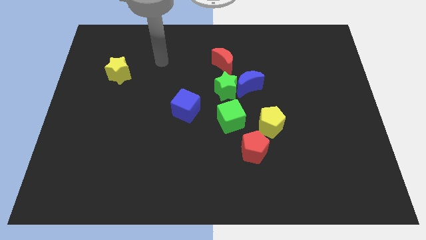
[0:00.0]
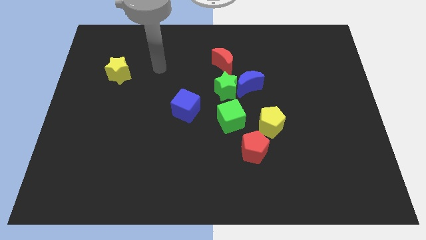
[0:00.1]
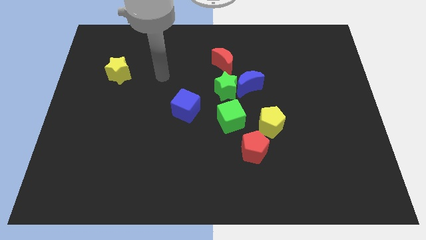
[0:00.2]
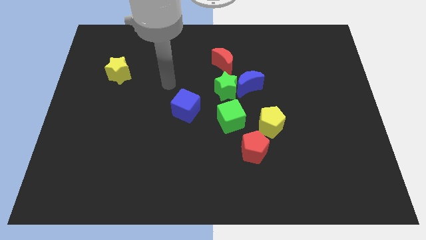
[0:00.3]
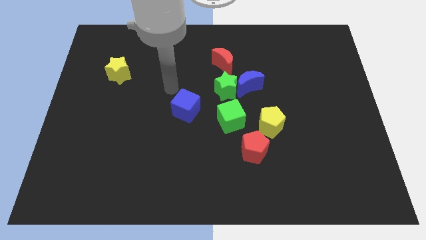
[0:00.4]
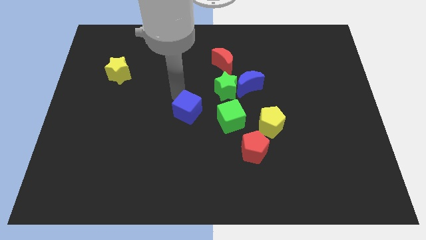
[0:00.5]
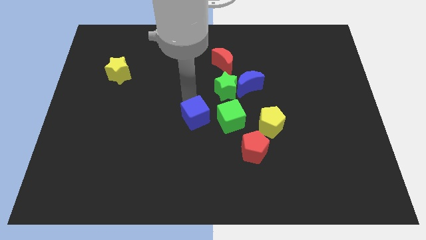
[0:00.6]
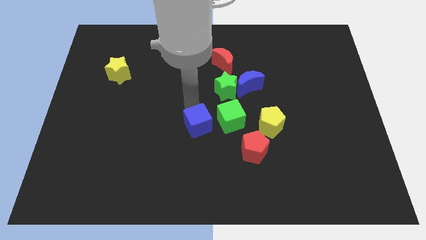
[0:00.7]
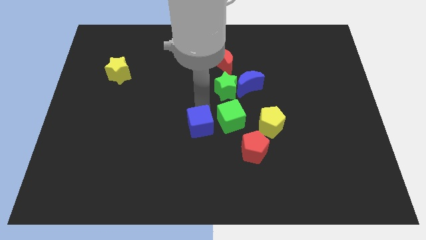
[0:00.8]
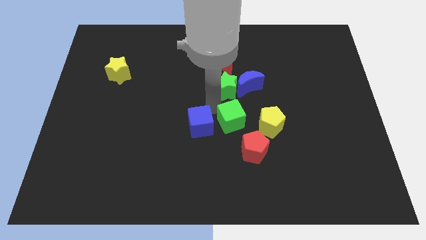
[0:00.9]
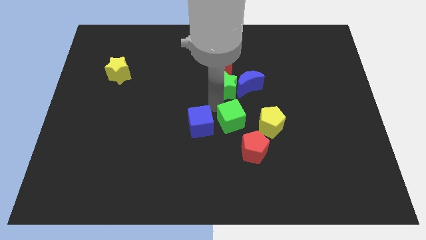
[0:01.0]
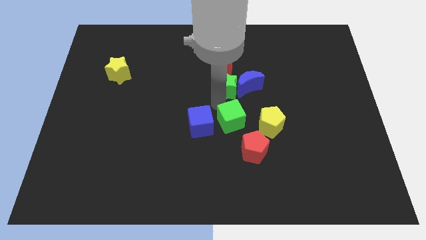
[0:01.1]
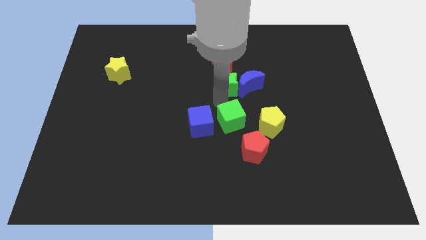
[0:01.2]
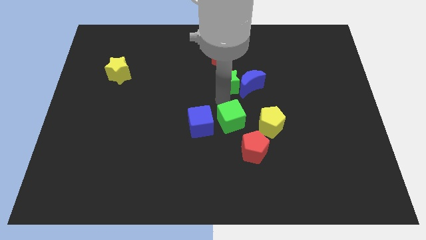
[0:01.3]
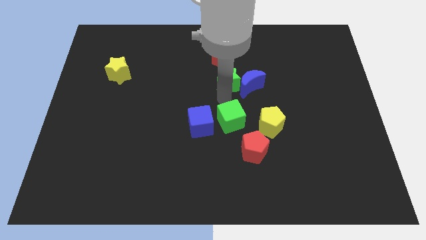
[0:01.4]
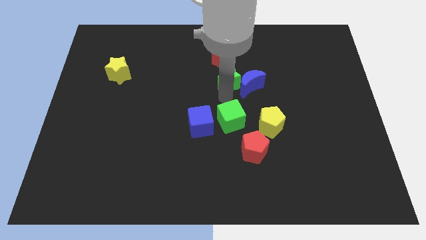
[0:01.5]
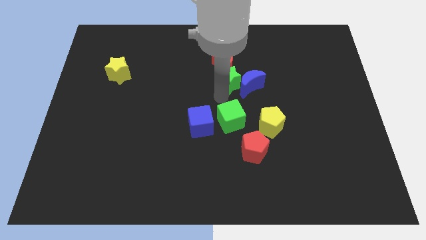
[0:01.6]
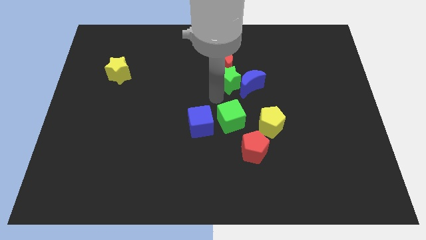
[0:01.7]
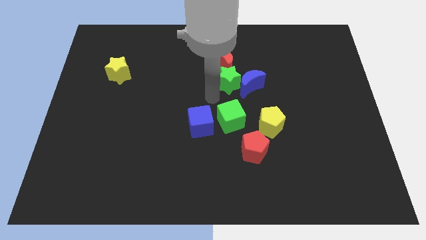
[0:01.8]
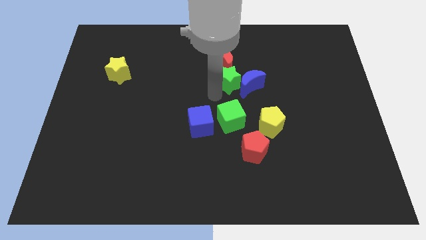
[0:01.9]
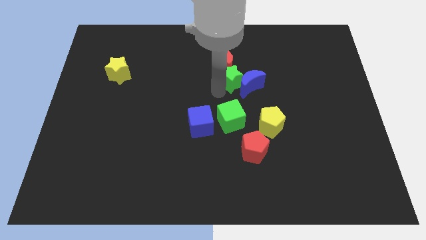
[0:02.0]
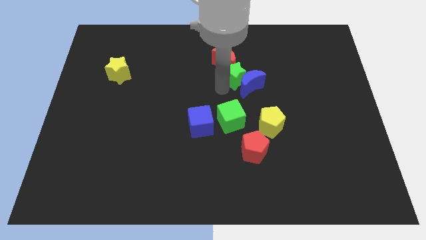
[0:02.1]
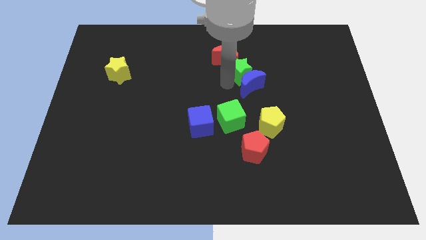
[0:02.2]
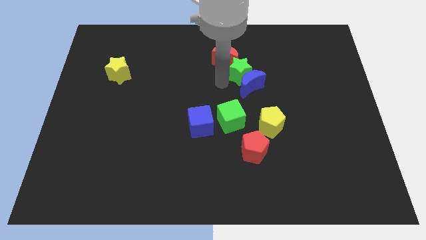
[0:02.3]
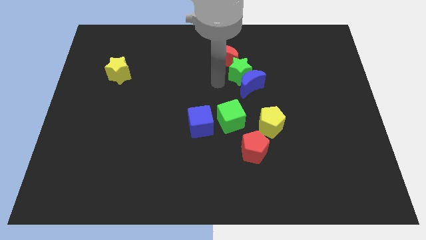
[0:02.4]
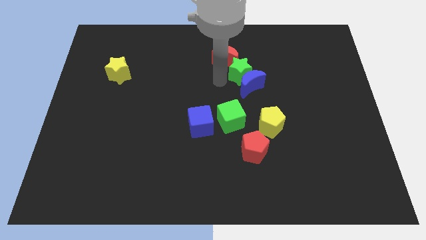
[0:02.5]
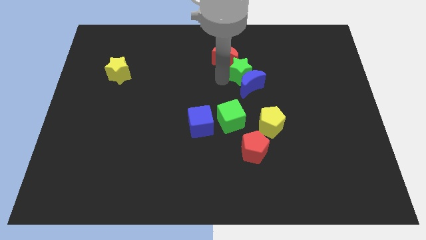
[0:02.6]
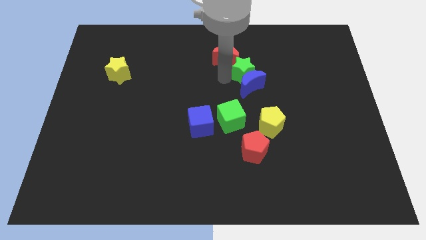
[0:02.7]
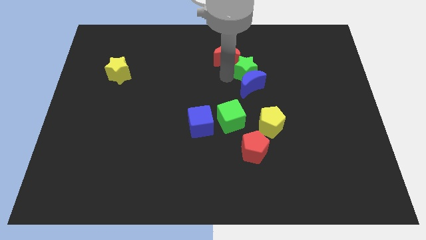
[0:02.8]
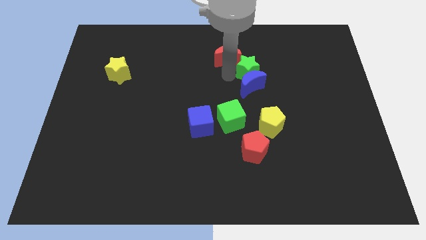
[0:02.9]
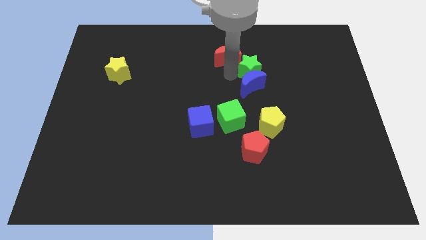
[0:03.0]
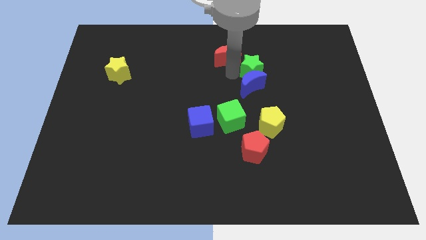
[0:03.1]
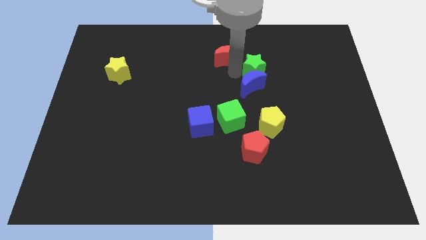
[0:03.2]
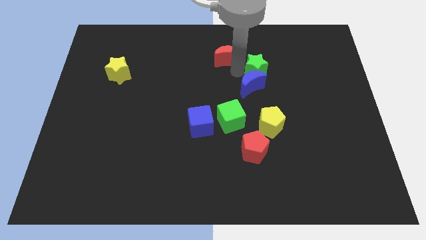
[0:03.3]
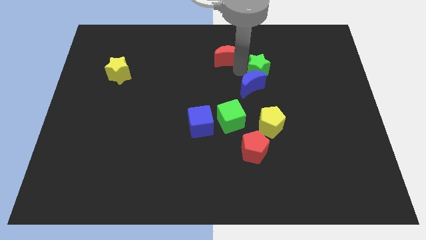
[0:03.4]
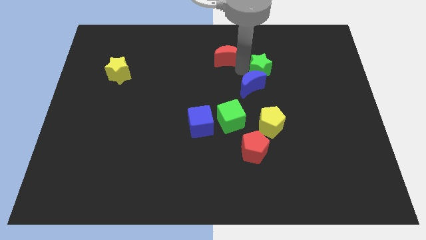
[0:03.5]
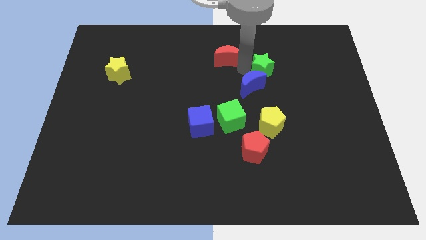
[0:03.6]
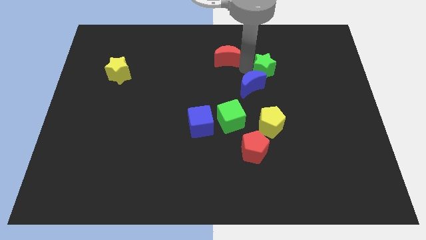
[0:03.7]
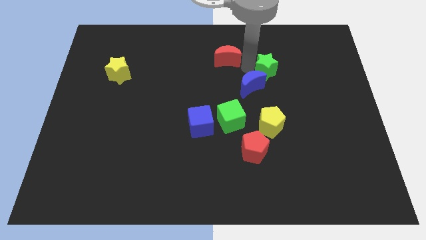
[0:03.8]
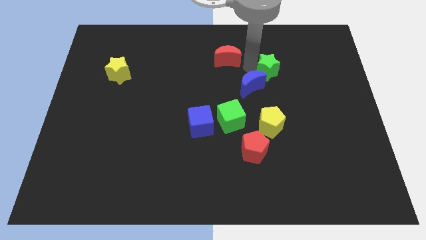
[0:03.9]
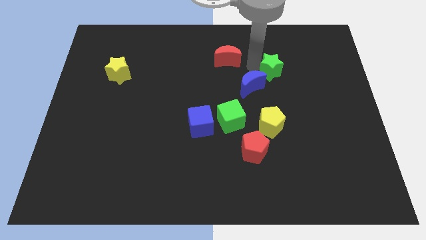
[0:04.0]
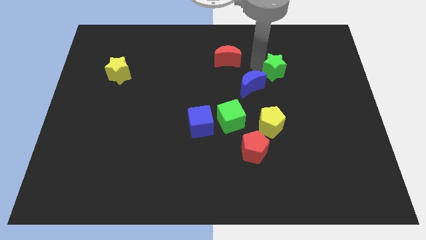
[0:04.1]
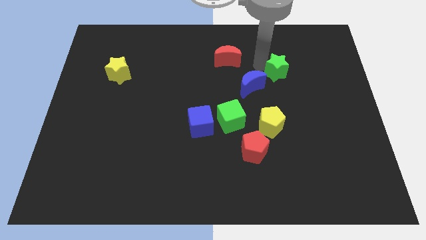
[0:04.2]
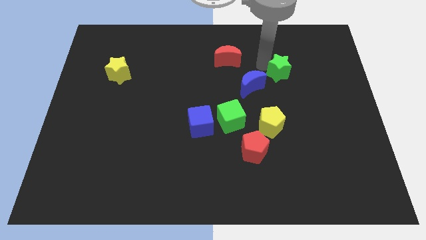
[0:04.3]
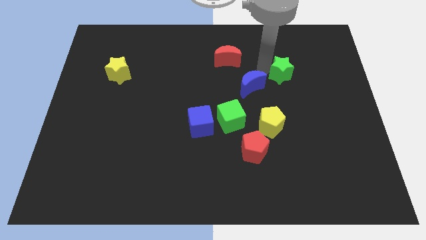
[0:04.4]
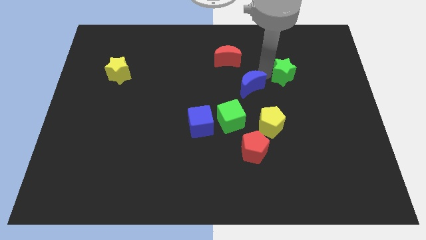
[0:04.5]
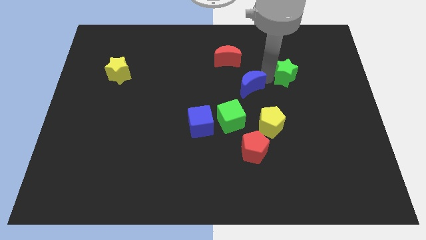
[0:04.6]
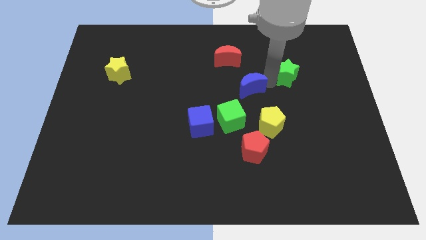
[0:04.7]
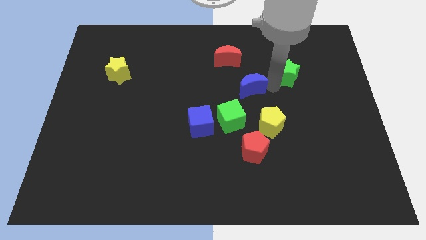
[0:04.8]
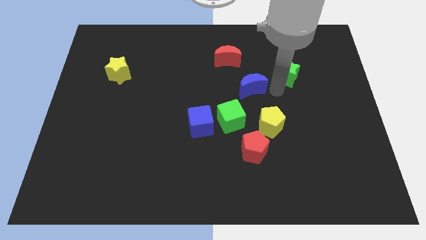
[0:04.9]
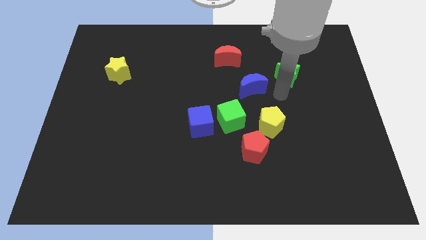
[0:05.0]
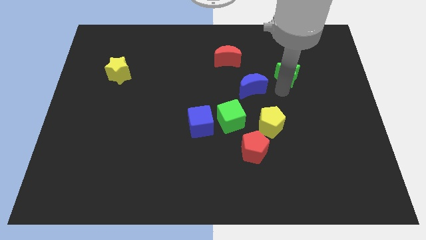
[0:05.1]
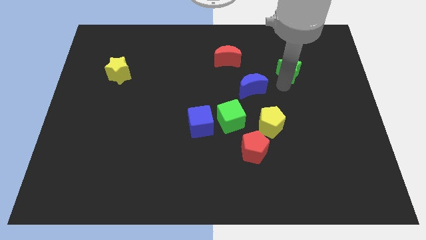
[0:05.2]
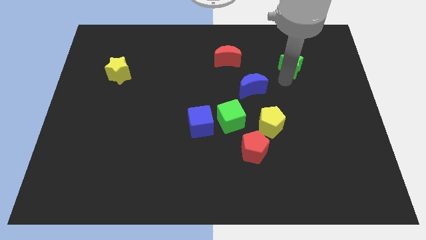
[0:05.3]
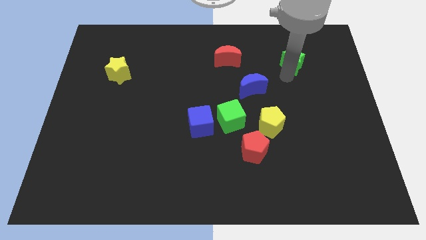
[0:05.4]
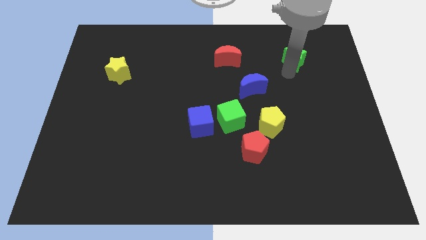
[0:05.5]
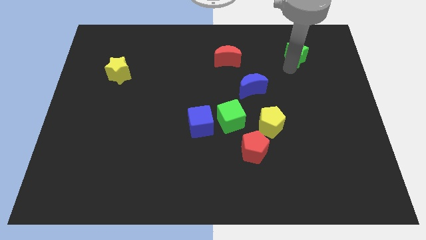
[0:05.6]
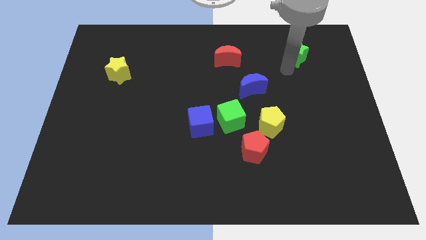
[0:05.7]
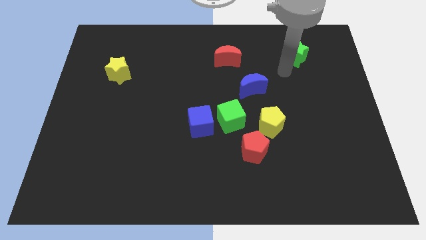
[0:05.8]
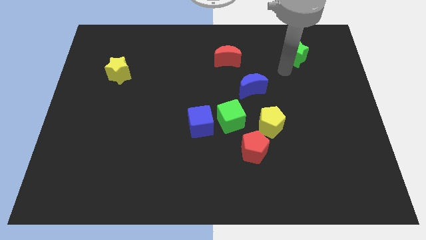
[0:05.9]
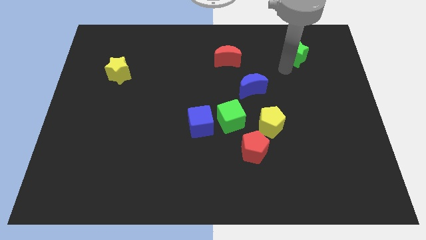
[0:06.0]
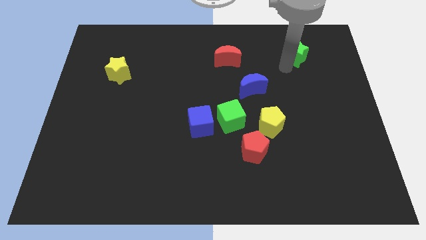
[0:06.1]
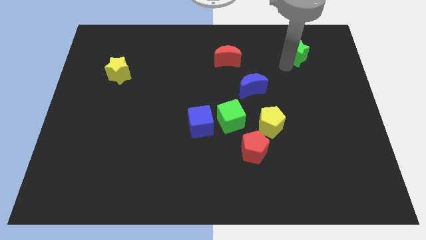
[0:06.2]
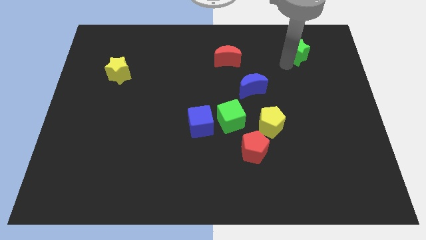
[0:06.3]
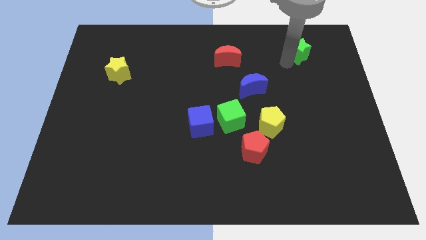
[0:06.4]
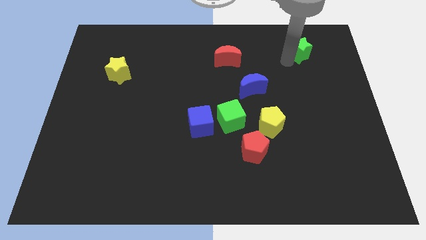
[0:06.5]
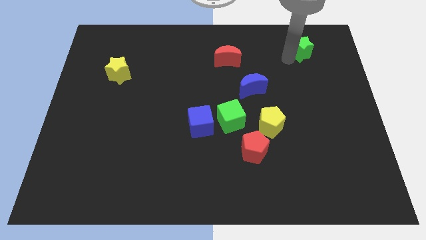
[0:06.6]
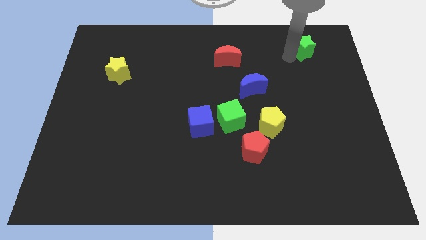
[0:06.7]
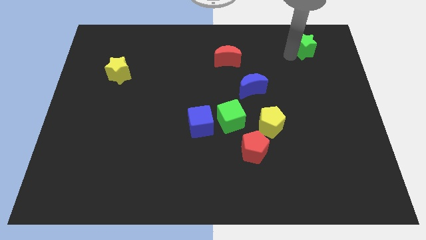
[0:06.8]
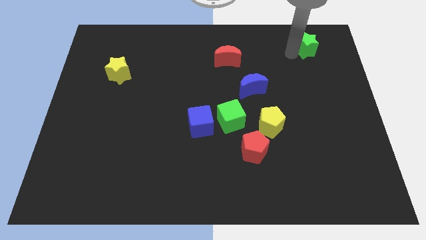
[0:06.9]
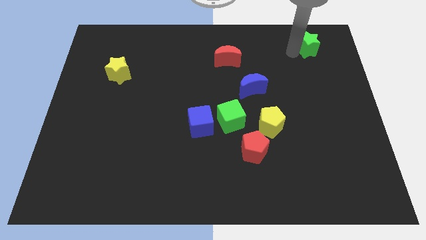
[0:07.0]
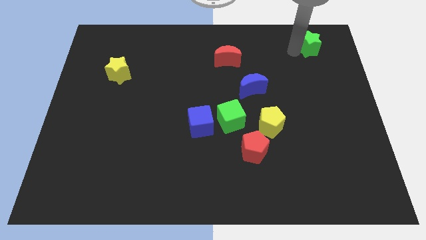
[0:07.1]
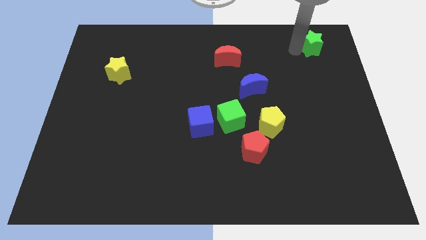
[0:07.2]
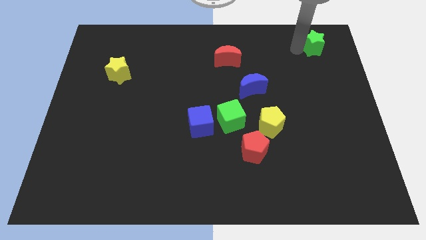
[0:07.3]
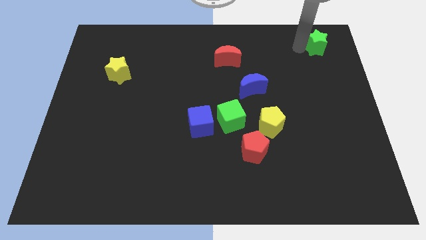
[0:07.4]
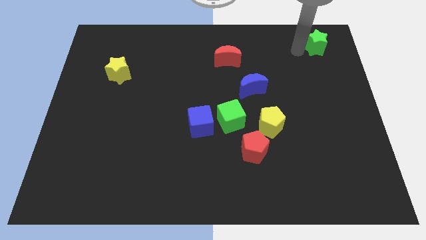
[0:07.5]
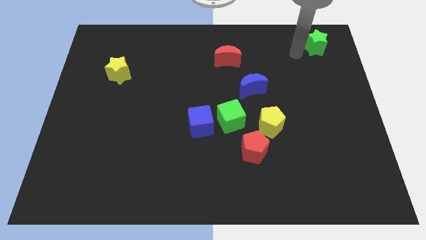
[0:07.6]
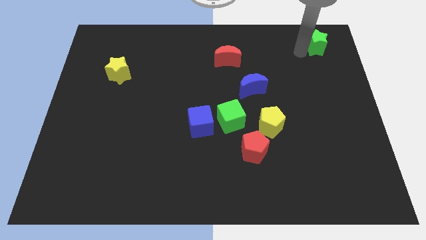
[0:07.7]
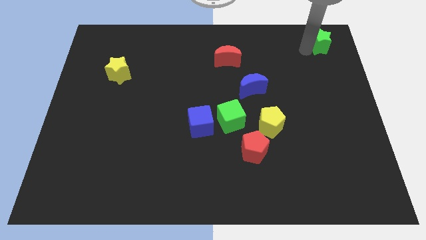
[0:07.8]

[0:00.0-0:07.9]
push the green star to the upper right corner
